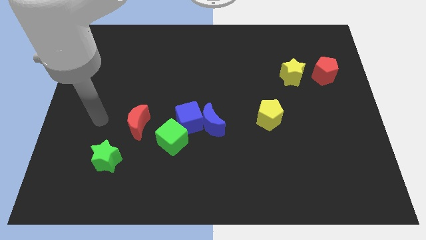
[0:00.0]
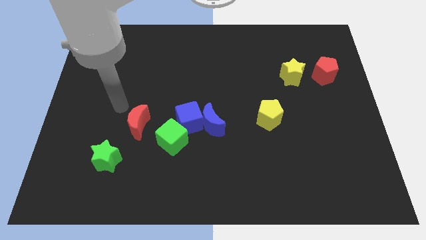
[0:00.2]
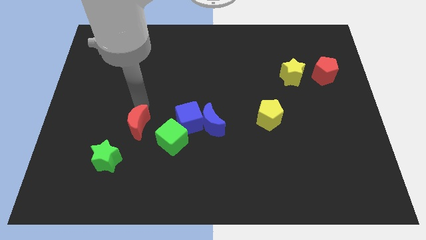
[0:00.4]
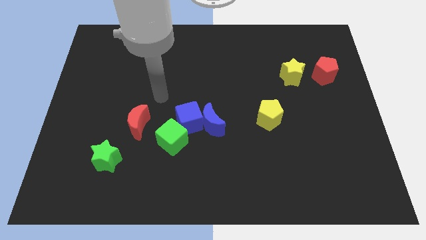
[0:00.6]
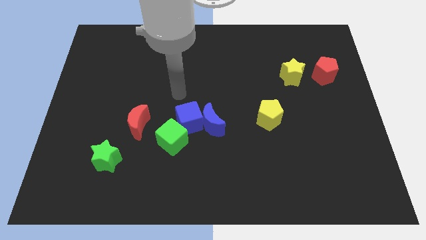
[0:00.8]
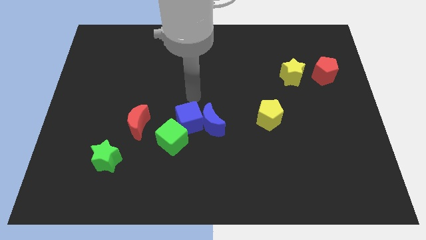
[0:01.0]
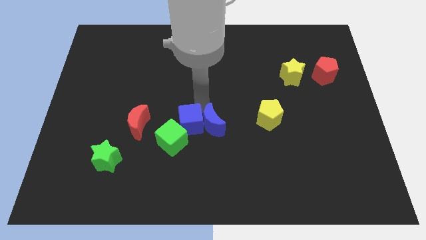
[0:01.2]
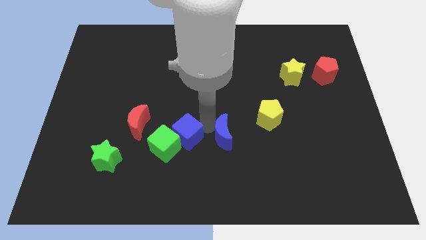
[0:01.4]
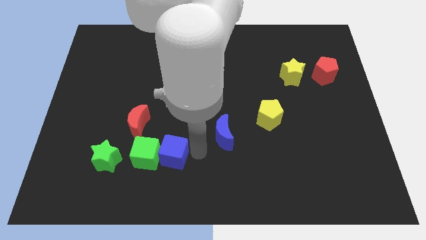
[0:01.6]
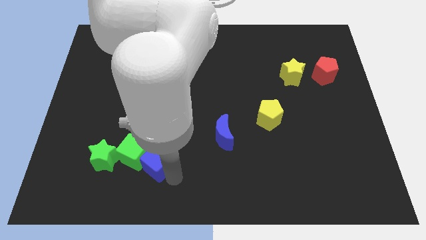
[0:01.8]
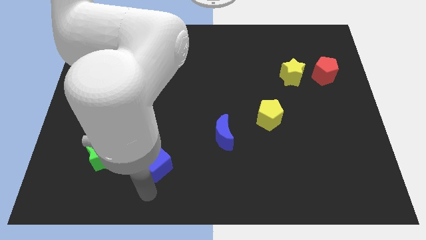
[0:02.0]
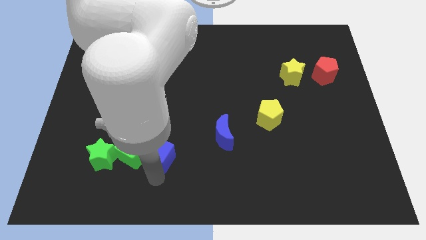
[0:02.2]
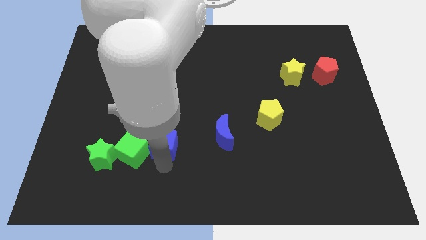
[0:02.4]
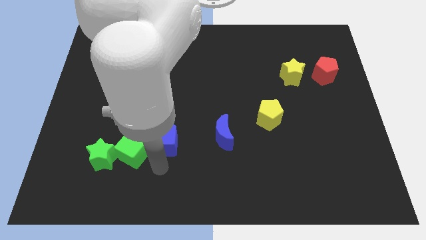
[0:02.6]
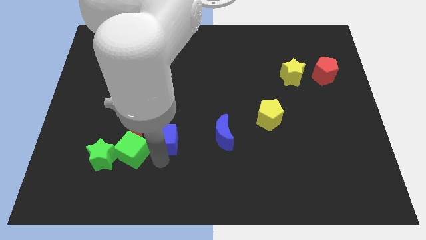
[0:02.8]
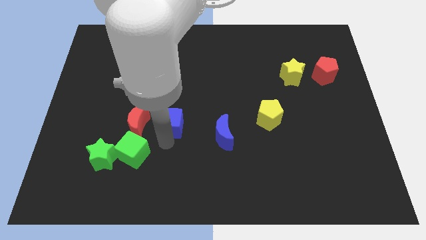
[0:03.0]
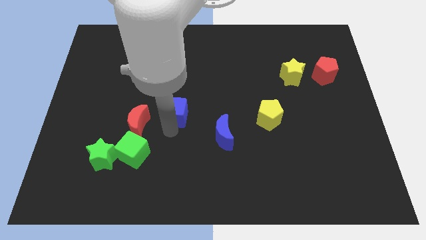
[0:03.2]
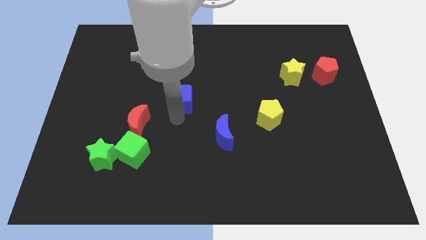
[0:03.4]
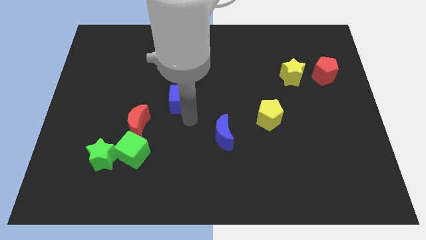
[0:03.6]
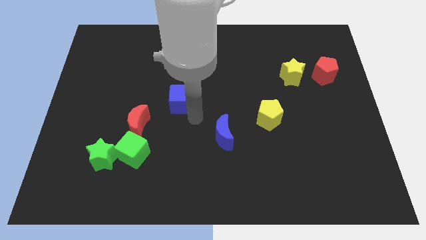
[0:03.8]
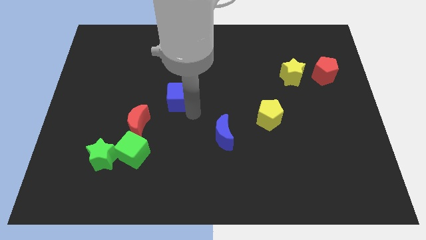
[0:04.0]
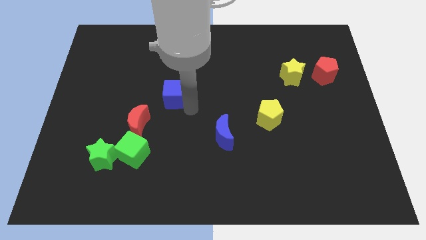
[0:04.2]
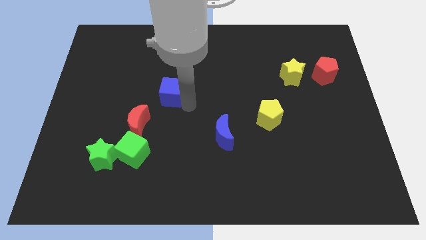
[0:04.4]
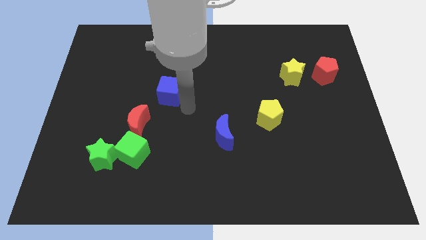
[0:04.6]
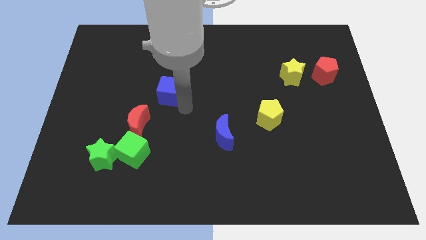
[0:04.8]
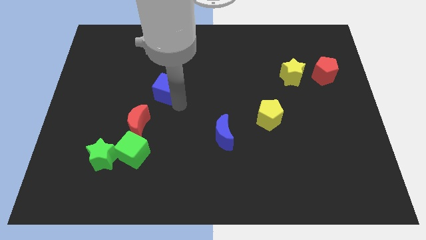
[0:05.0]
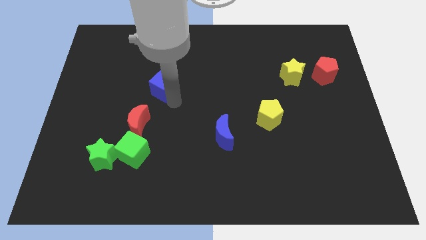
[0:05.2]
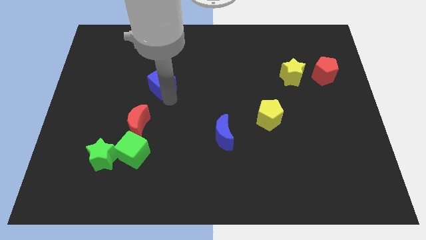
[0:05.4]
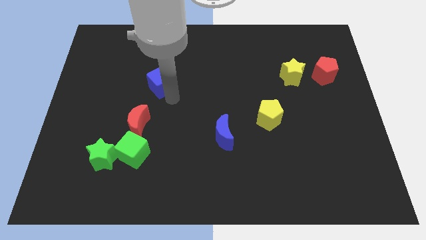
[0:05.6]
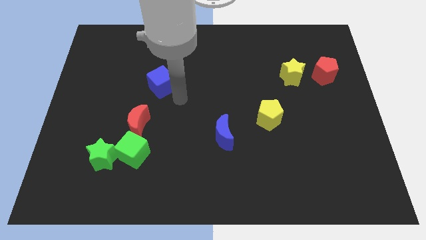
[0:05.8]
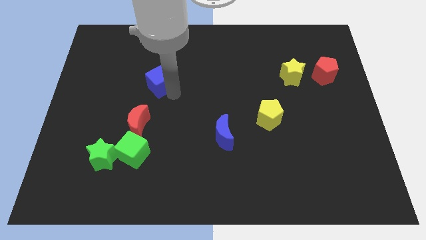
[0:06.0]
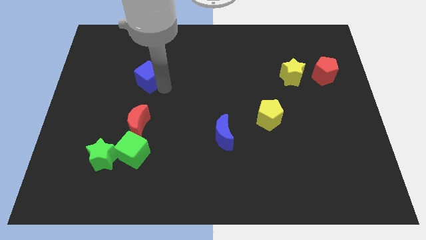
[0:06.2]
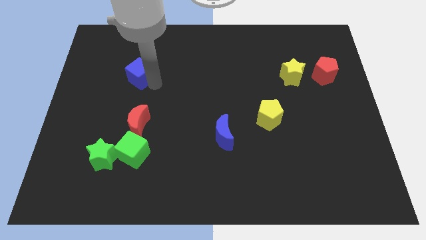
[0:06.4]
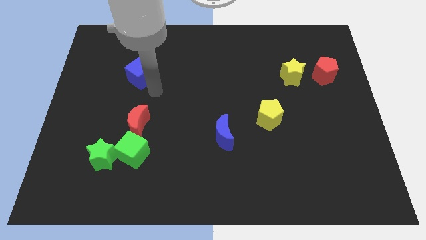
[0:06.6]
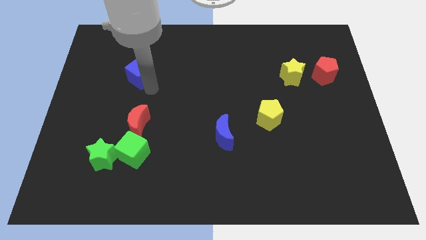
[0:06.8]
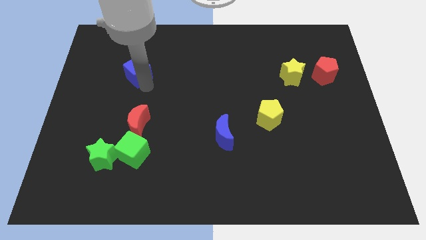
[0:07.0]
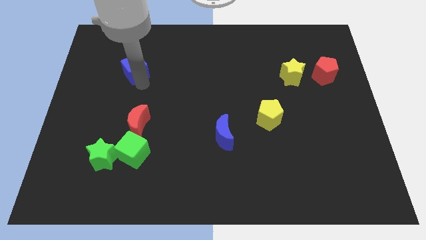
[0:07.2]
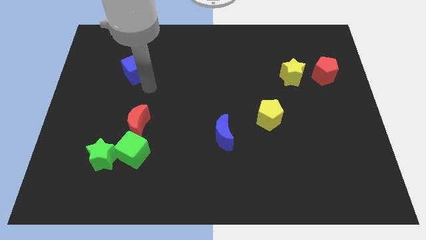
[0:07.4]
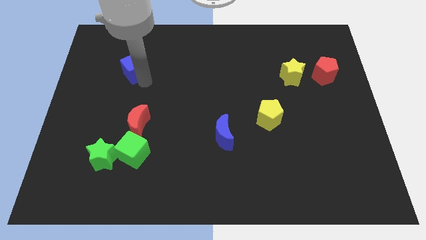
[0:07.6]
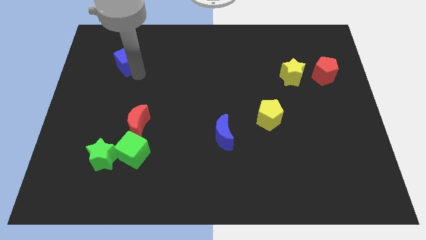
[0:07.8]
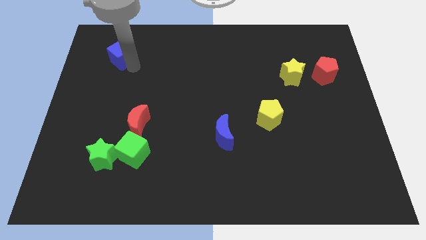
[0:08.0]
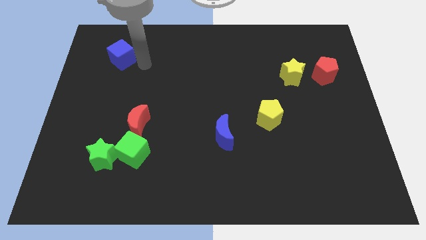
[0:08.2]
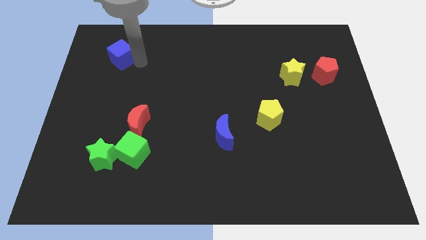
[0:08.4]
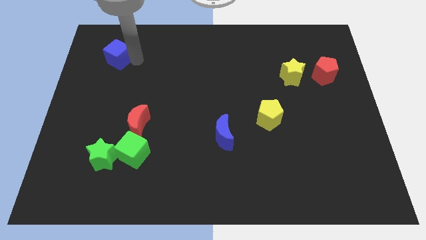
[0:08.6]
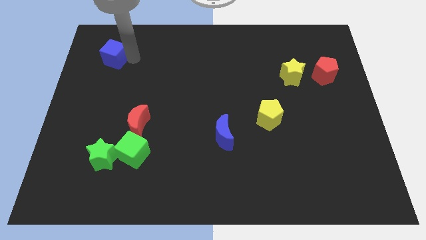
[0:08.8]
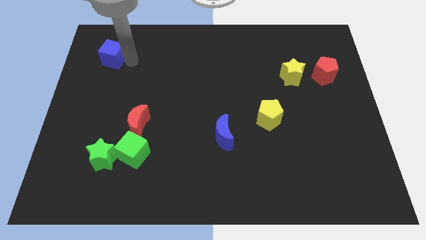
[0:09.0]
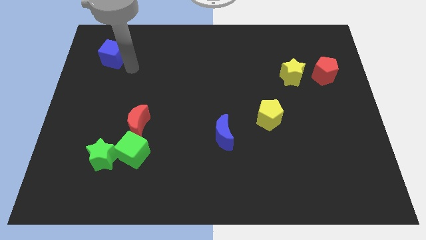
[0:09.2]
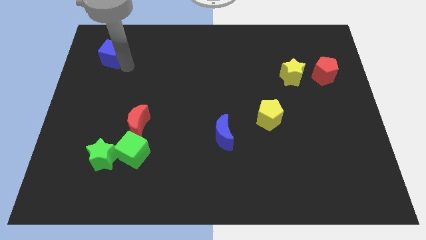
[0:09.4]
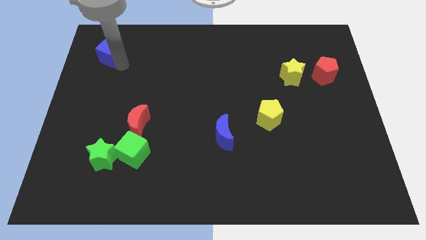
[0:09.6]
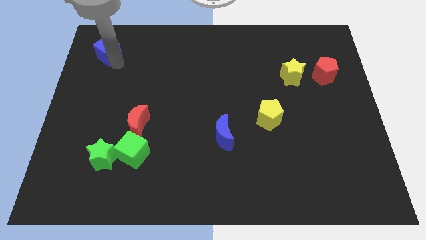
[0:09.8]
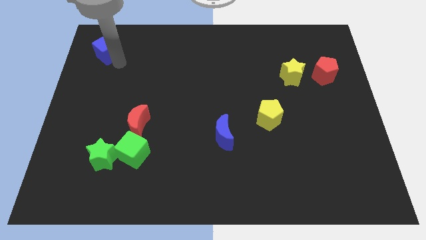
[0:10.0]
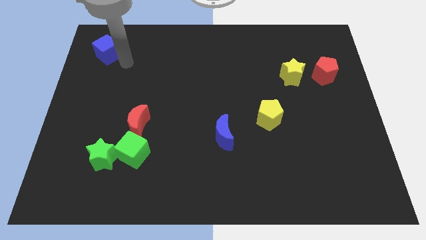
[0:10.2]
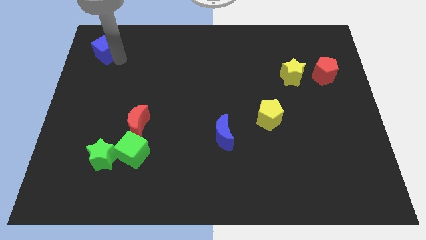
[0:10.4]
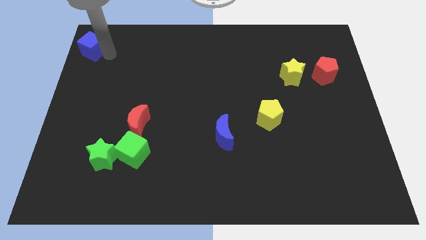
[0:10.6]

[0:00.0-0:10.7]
push the blue cube to the top left

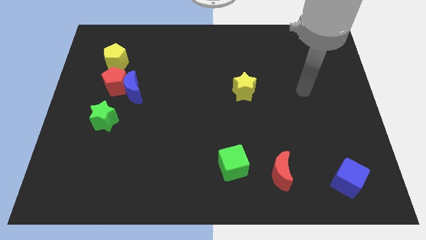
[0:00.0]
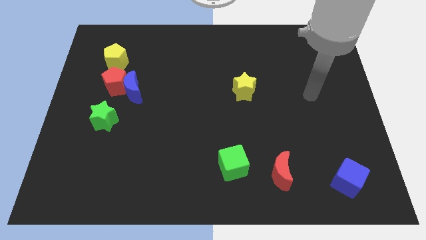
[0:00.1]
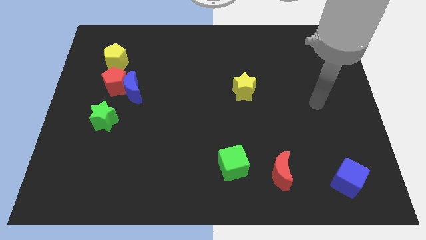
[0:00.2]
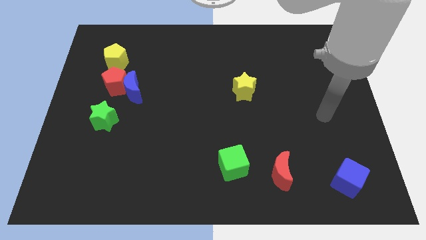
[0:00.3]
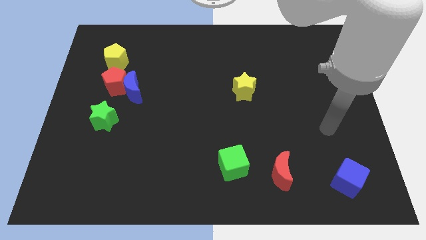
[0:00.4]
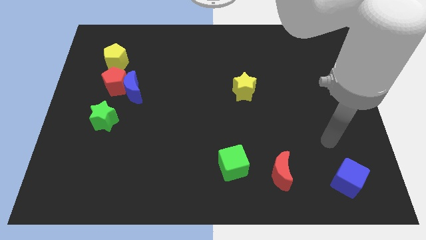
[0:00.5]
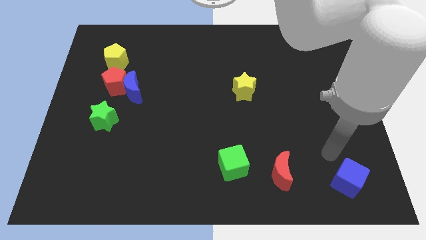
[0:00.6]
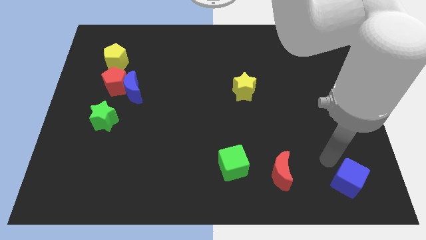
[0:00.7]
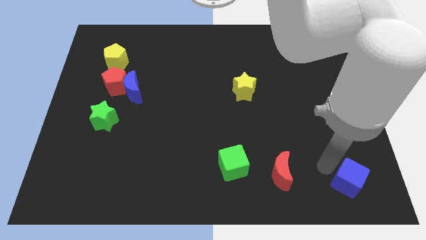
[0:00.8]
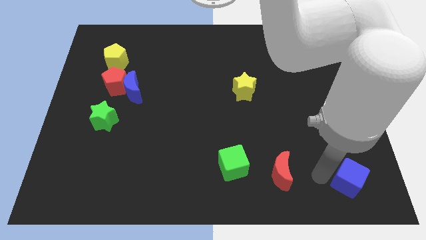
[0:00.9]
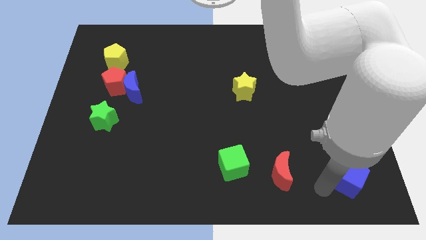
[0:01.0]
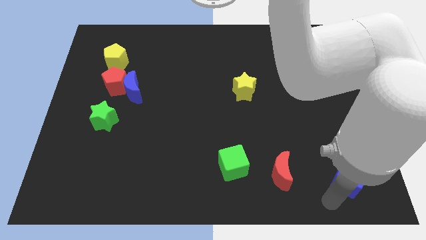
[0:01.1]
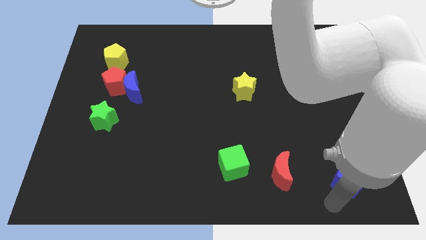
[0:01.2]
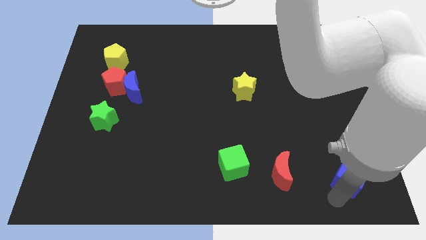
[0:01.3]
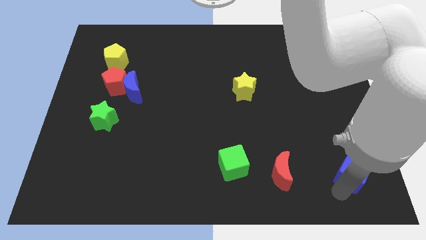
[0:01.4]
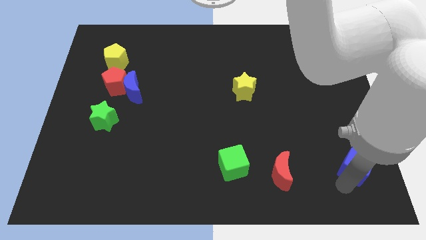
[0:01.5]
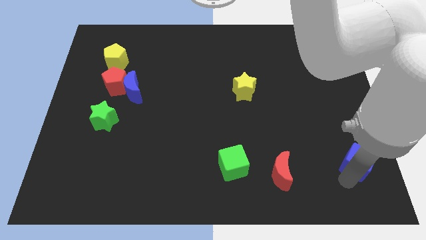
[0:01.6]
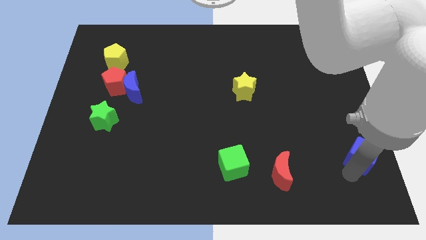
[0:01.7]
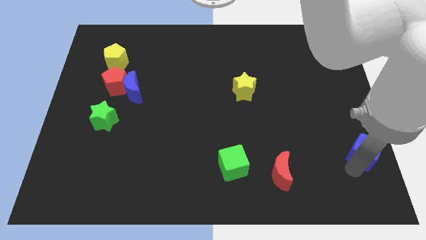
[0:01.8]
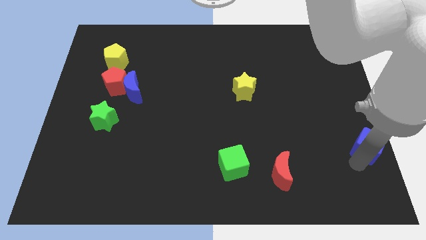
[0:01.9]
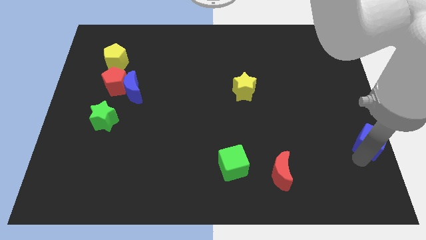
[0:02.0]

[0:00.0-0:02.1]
put the blue cube to the right side
